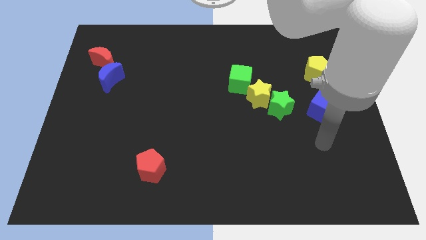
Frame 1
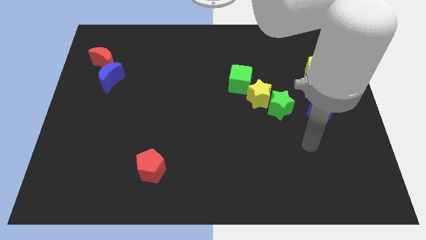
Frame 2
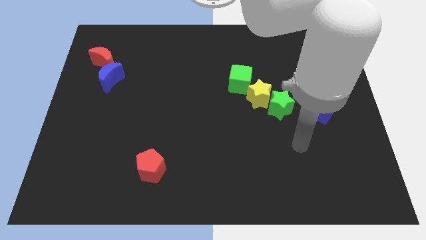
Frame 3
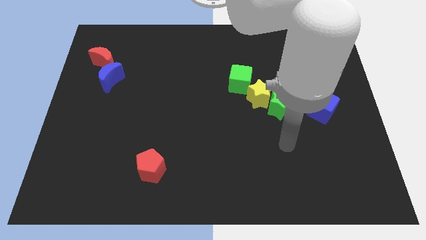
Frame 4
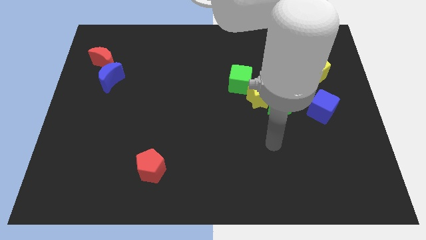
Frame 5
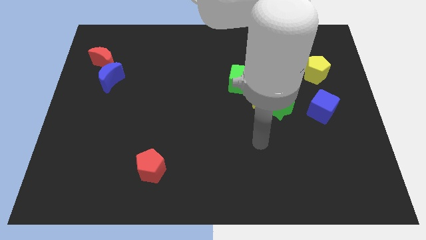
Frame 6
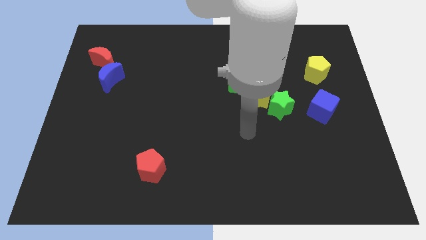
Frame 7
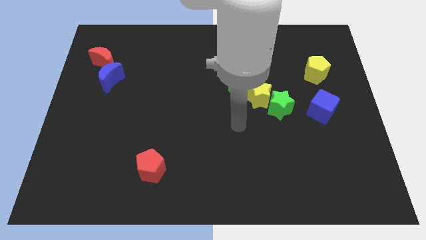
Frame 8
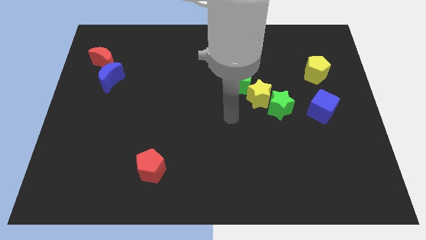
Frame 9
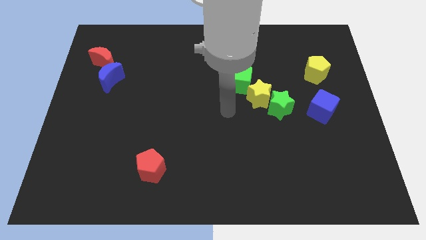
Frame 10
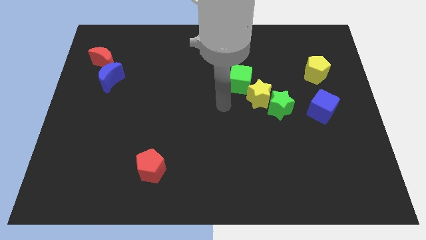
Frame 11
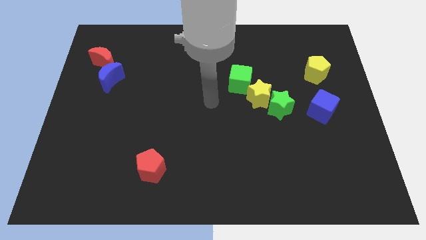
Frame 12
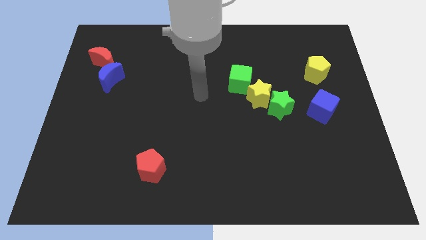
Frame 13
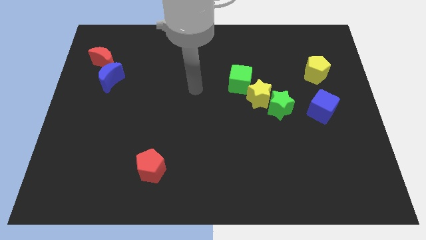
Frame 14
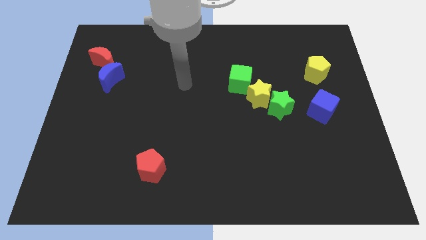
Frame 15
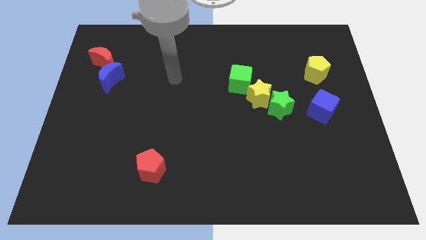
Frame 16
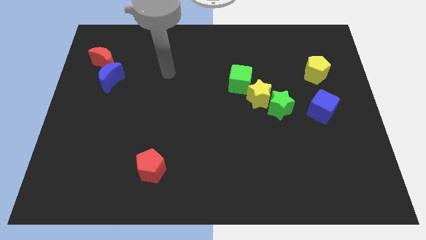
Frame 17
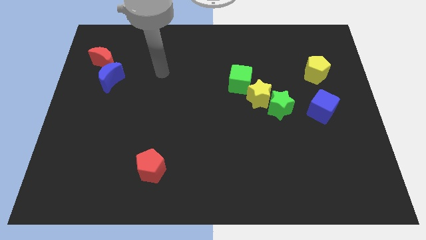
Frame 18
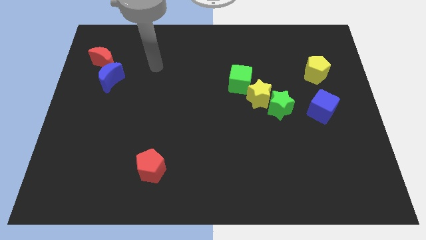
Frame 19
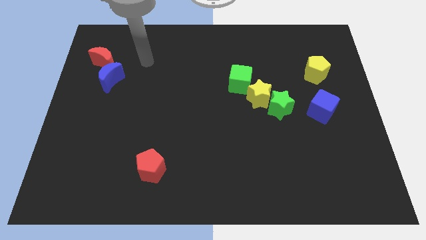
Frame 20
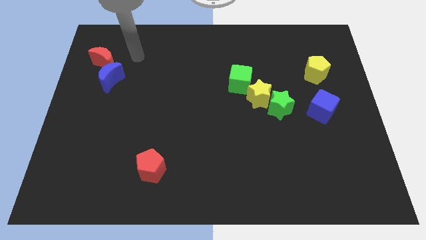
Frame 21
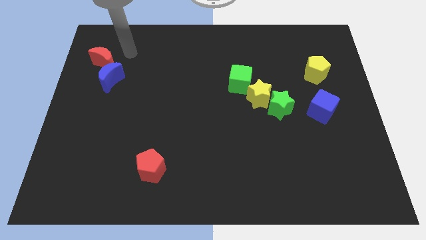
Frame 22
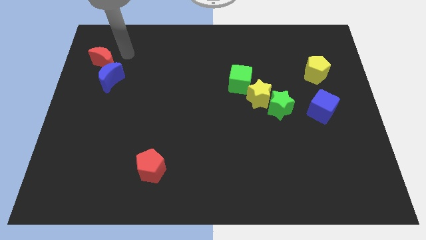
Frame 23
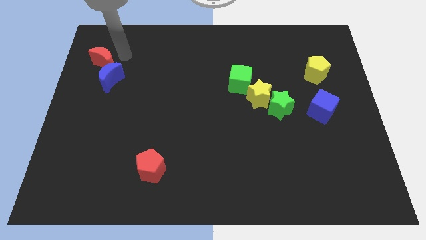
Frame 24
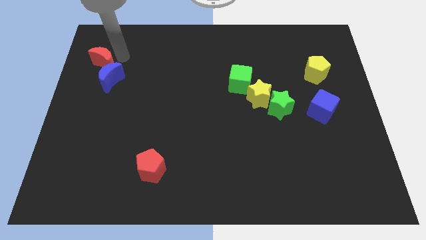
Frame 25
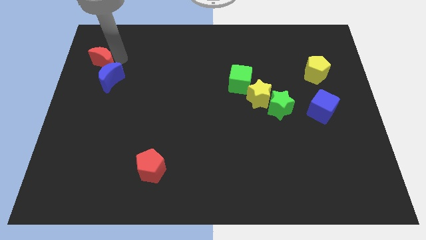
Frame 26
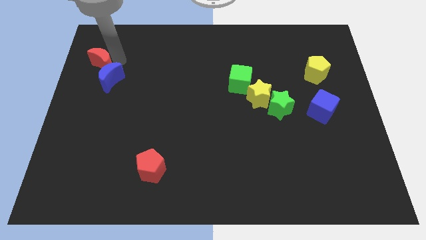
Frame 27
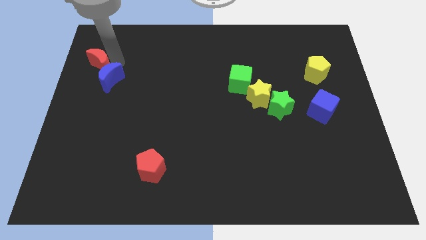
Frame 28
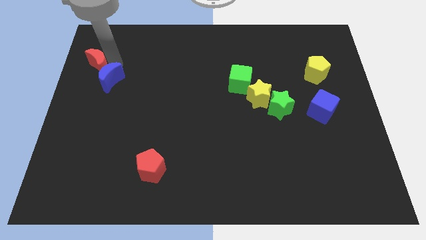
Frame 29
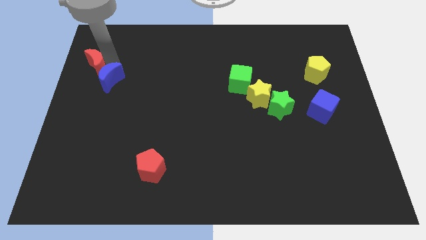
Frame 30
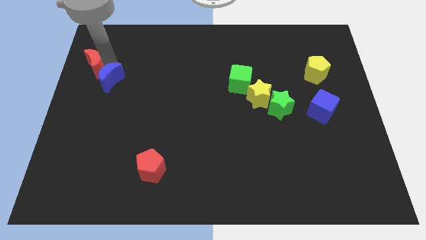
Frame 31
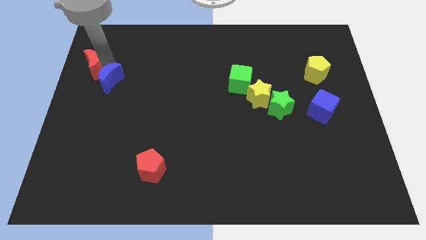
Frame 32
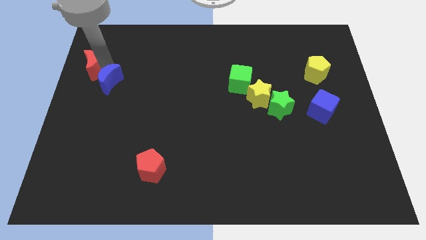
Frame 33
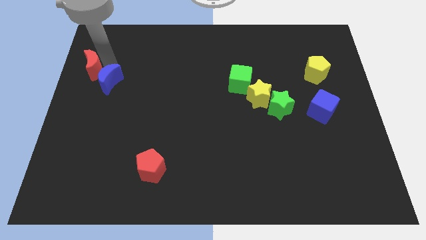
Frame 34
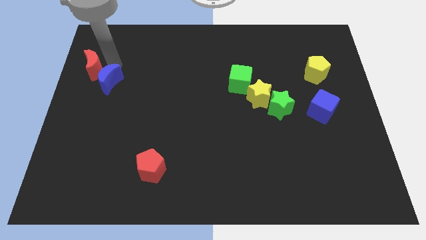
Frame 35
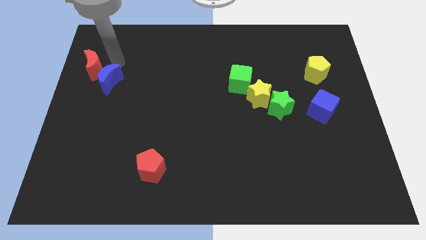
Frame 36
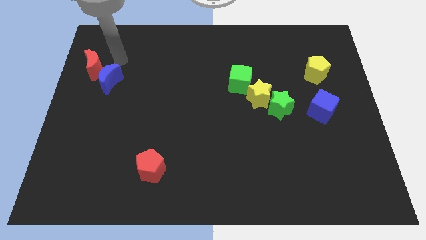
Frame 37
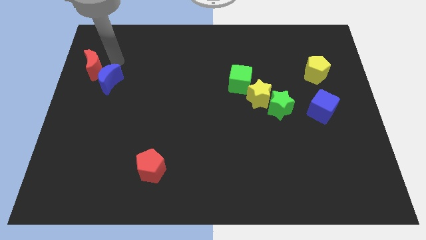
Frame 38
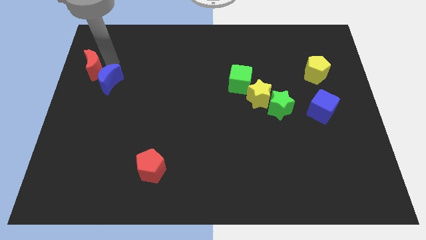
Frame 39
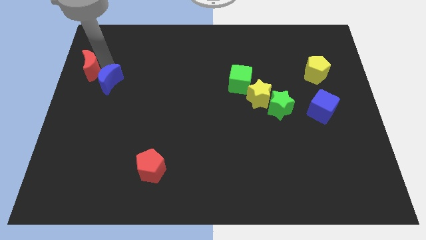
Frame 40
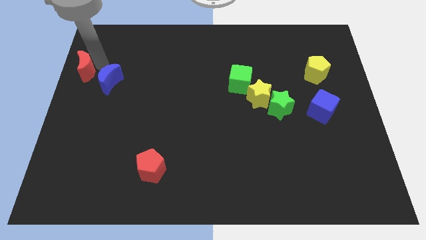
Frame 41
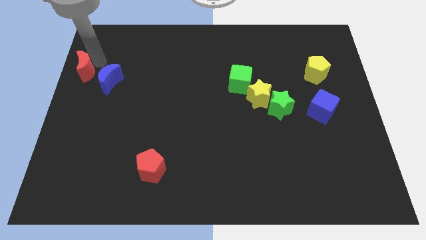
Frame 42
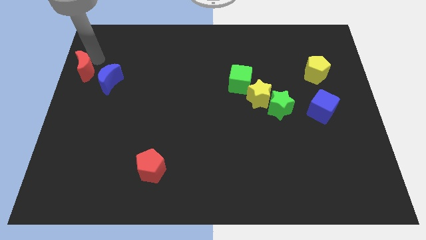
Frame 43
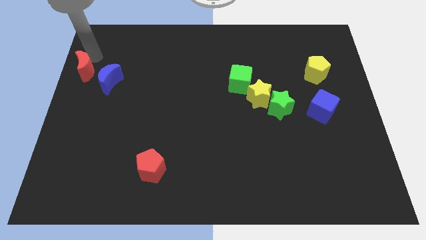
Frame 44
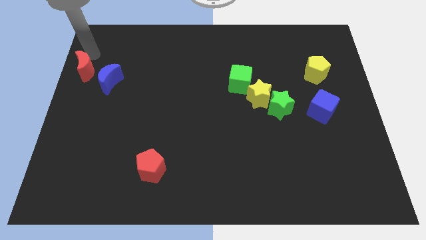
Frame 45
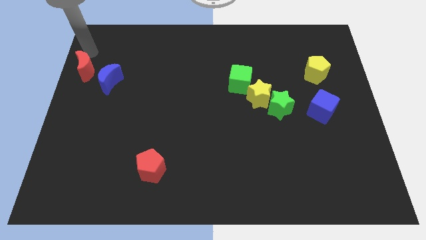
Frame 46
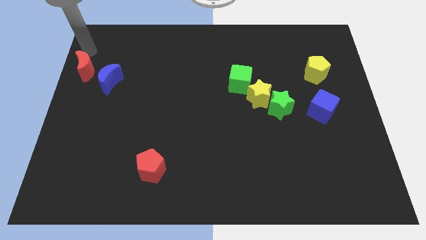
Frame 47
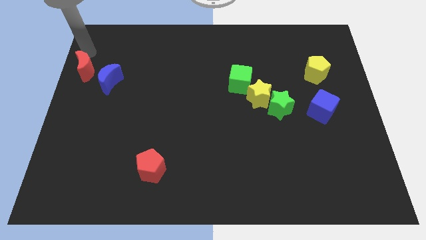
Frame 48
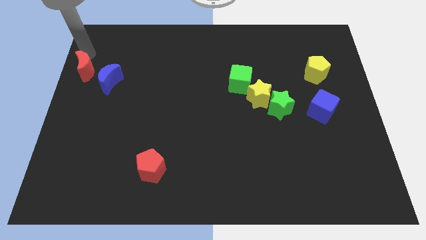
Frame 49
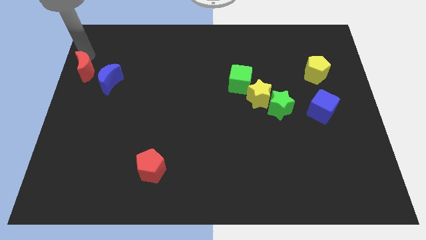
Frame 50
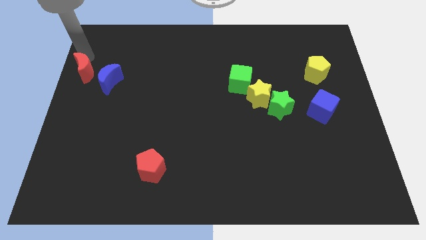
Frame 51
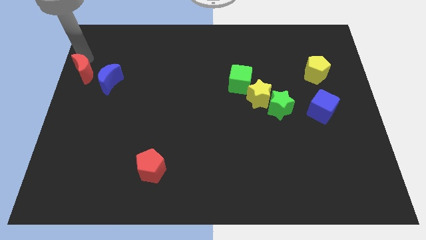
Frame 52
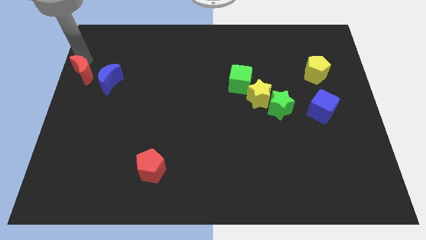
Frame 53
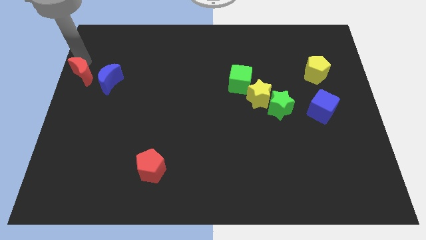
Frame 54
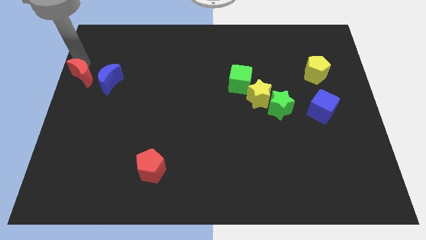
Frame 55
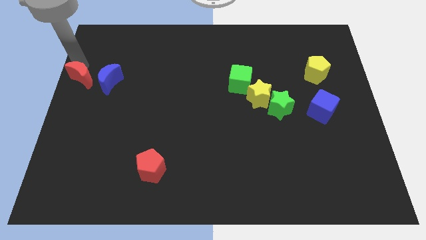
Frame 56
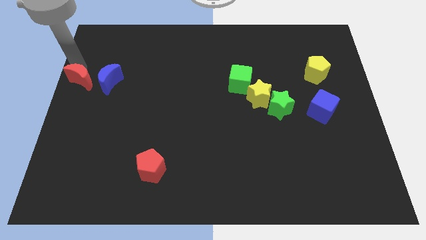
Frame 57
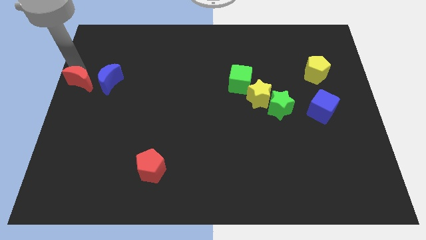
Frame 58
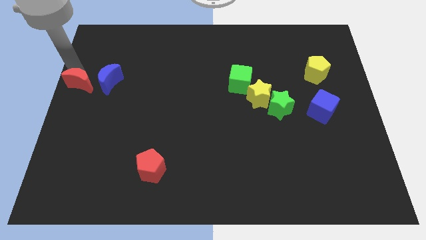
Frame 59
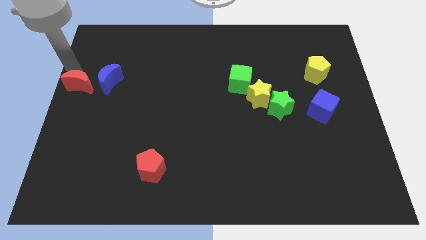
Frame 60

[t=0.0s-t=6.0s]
slightly slide the red moon downwards

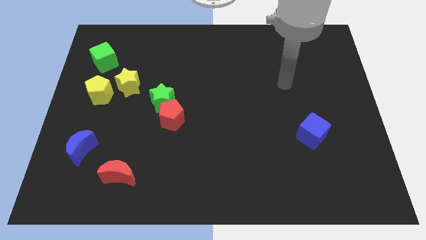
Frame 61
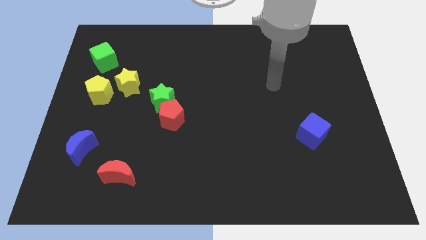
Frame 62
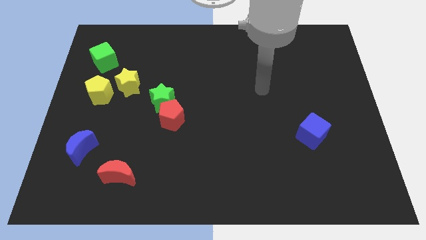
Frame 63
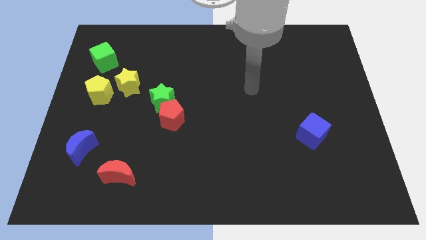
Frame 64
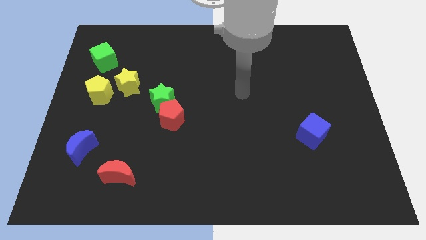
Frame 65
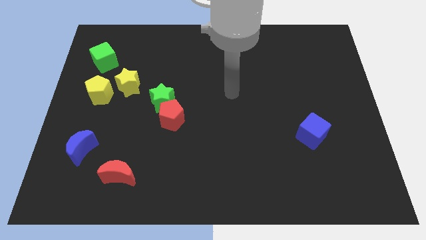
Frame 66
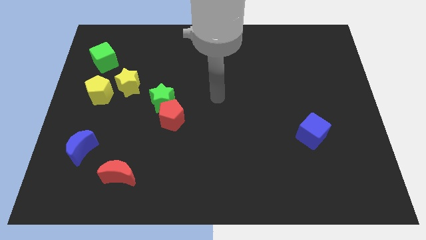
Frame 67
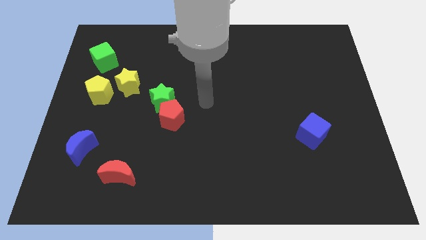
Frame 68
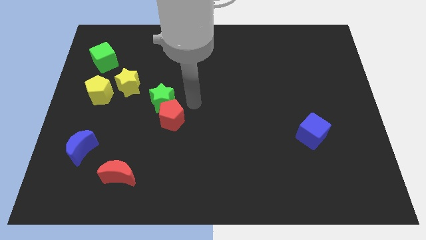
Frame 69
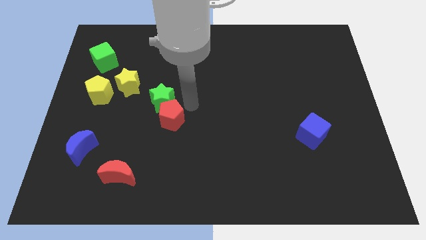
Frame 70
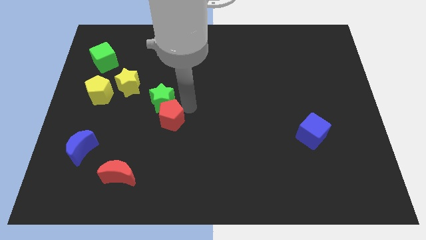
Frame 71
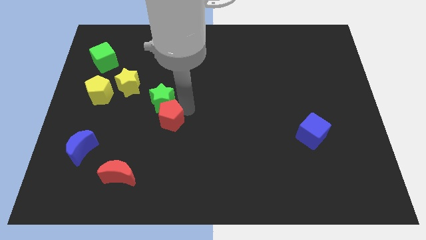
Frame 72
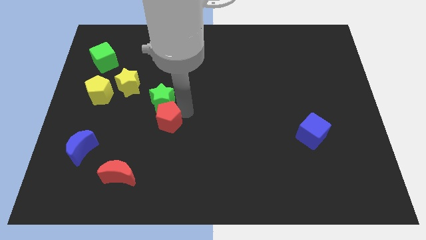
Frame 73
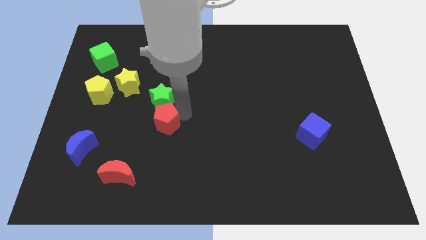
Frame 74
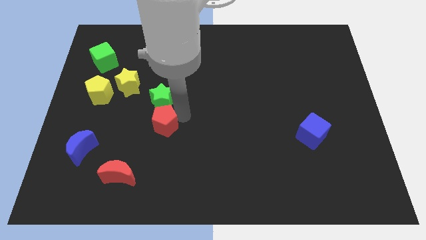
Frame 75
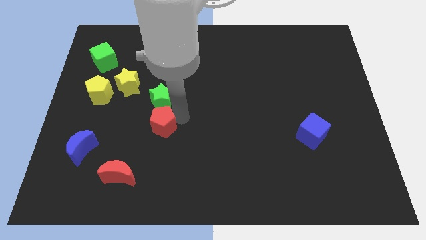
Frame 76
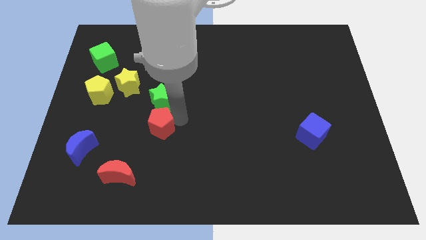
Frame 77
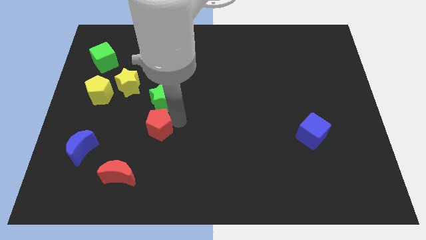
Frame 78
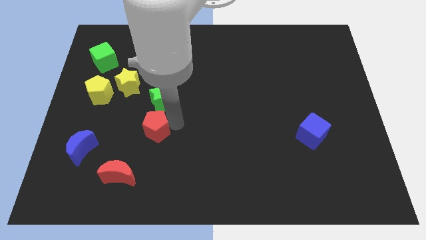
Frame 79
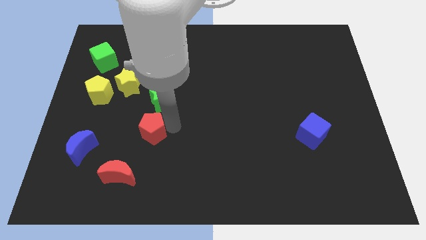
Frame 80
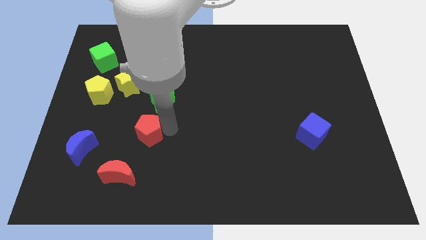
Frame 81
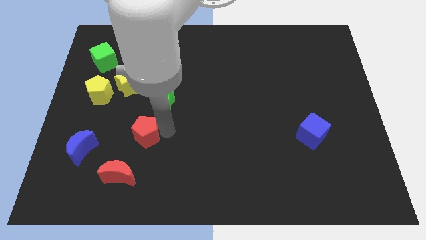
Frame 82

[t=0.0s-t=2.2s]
slide the red pentagon downwards and then to the left a little bit
